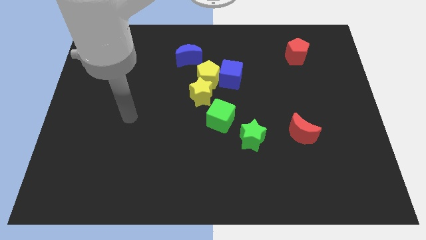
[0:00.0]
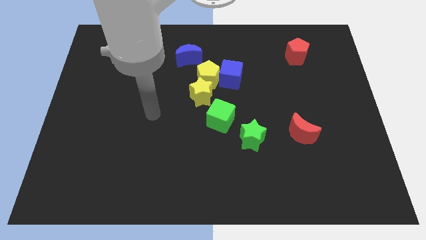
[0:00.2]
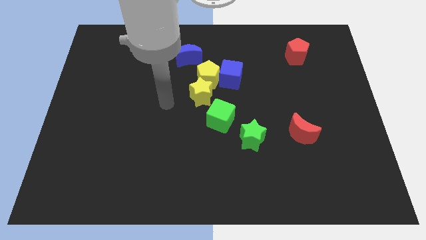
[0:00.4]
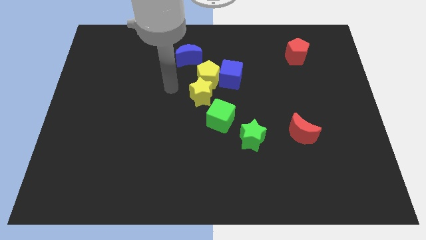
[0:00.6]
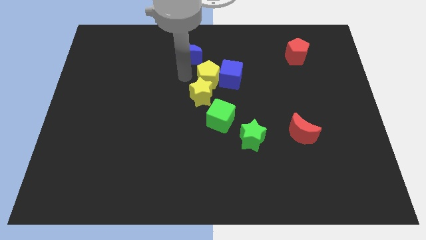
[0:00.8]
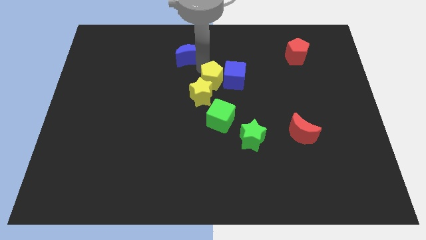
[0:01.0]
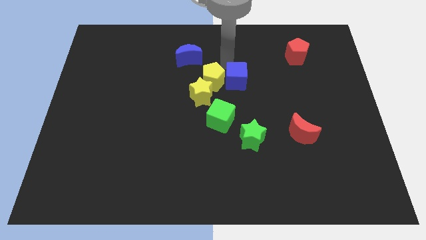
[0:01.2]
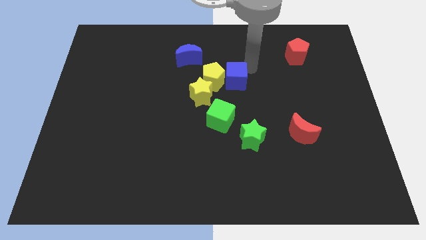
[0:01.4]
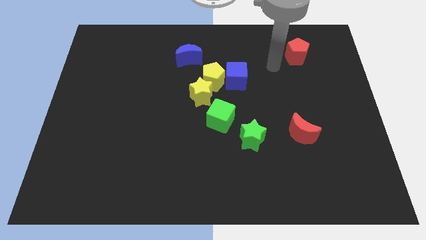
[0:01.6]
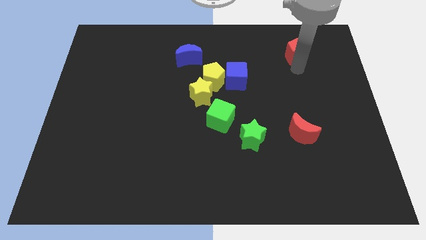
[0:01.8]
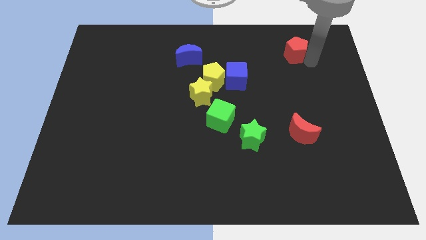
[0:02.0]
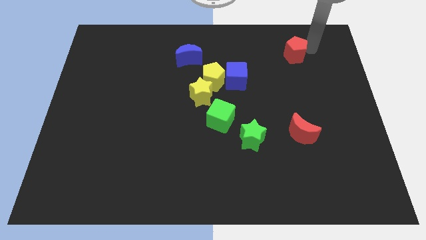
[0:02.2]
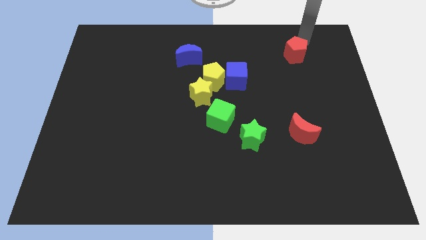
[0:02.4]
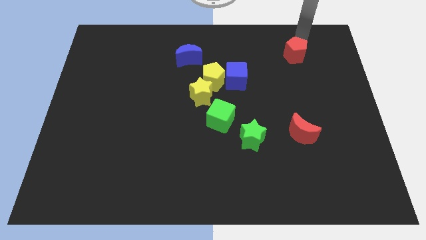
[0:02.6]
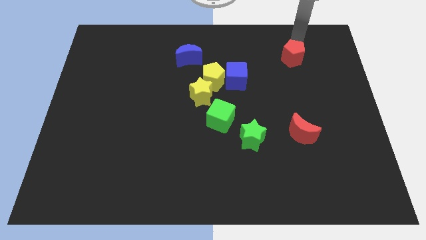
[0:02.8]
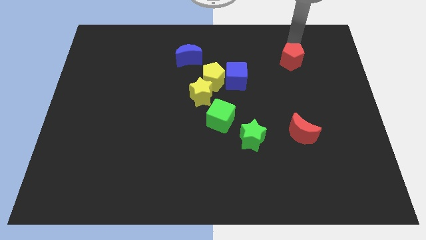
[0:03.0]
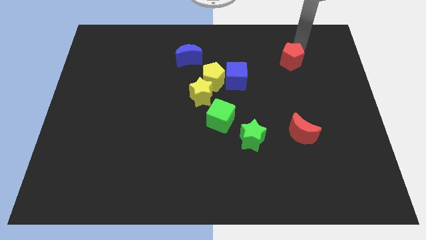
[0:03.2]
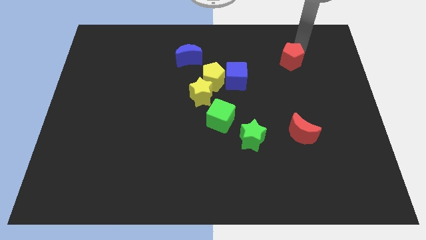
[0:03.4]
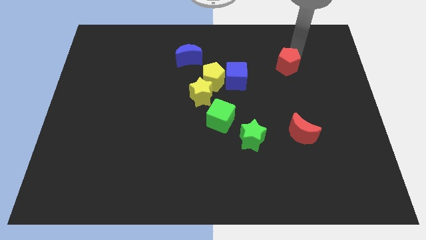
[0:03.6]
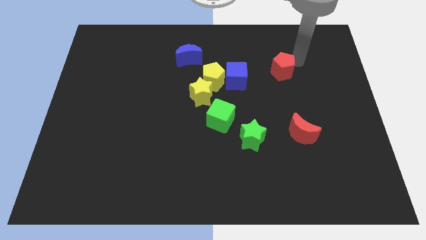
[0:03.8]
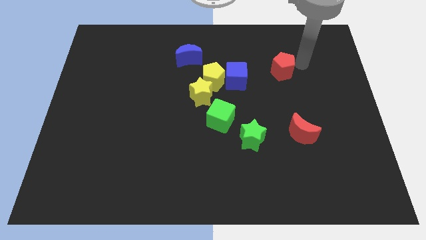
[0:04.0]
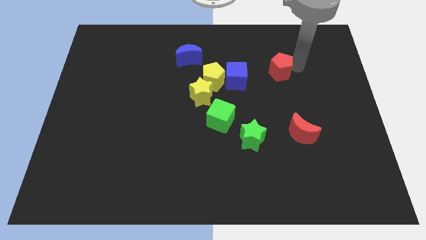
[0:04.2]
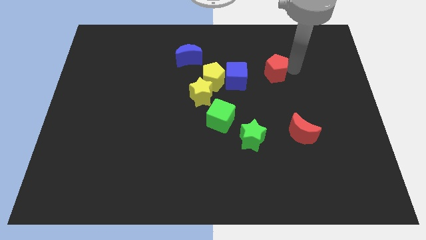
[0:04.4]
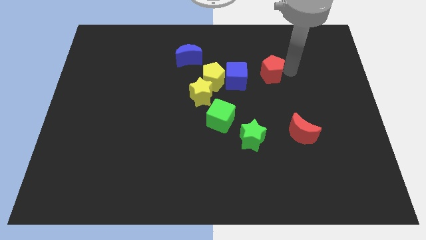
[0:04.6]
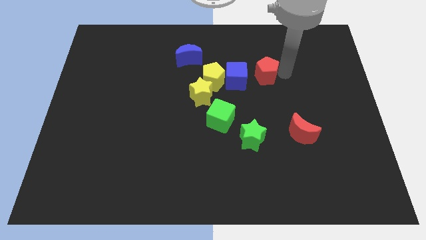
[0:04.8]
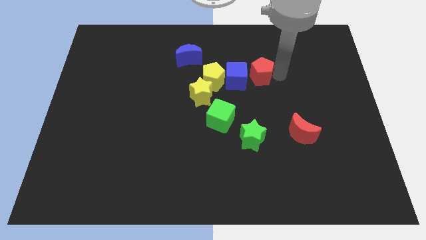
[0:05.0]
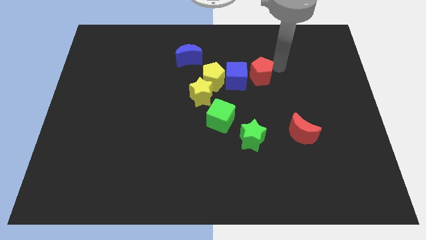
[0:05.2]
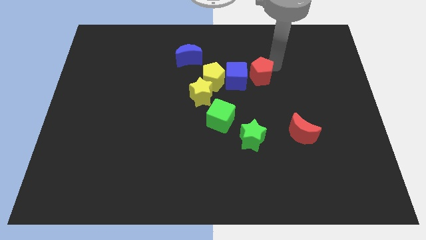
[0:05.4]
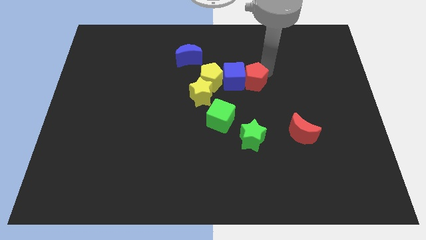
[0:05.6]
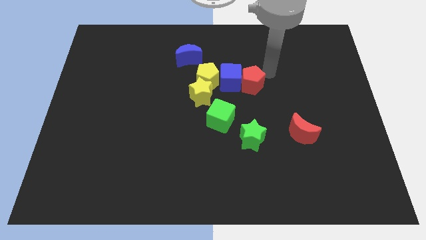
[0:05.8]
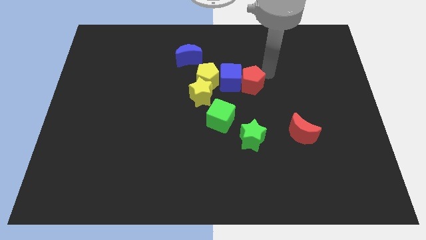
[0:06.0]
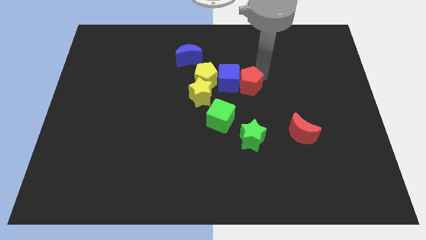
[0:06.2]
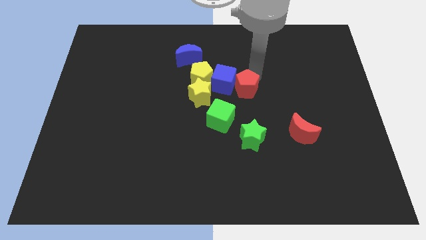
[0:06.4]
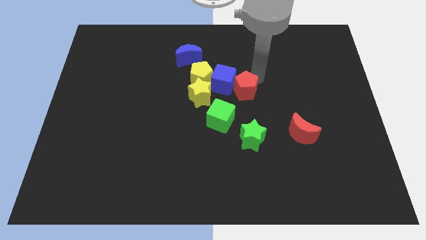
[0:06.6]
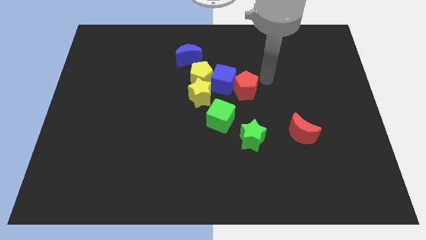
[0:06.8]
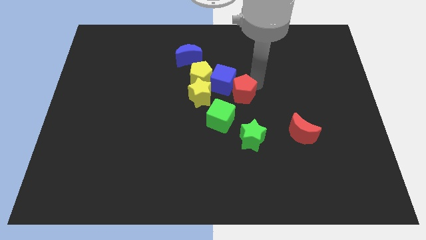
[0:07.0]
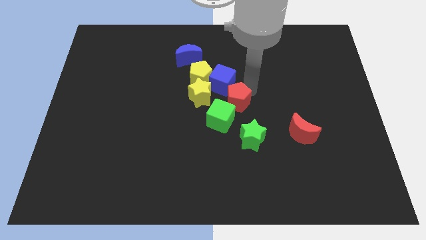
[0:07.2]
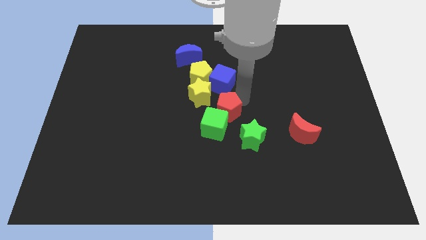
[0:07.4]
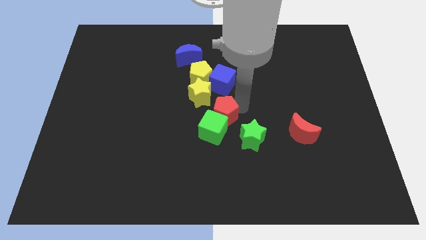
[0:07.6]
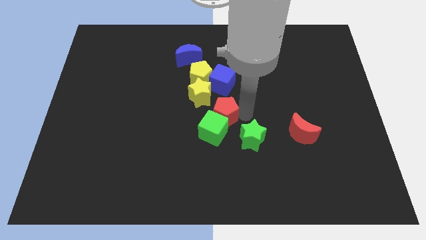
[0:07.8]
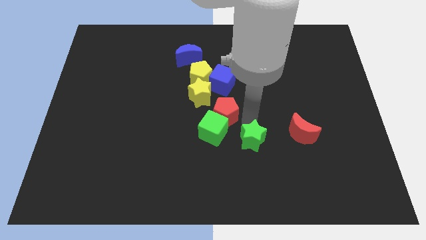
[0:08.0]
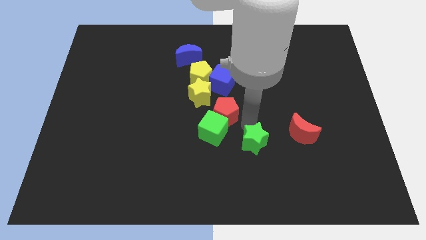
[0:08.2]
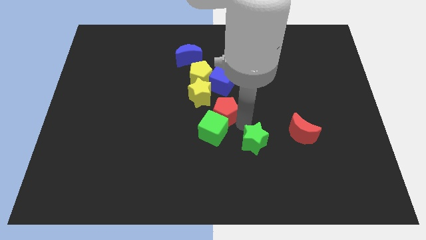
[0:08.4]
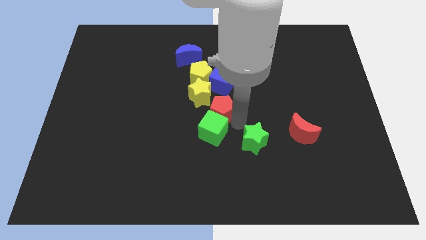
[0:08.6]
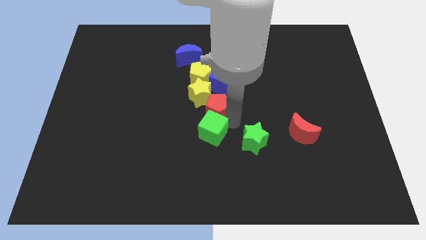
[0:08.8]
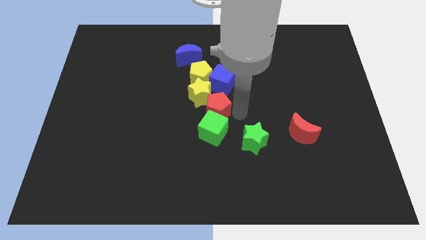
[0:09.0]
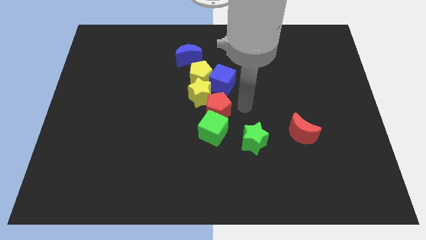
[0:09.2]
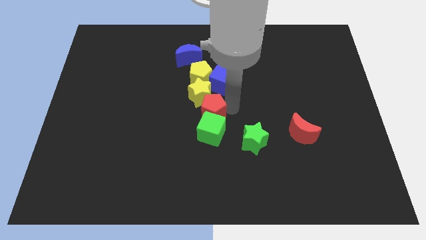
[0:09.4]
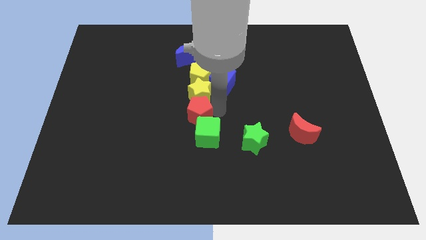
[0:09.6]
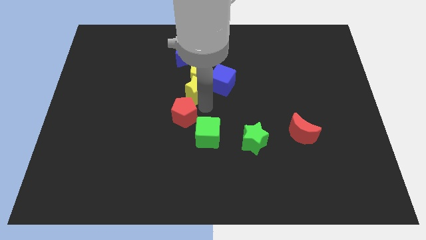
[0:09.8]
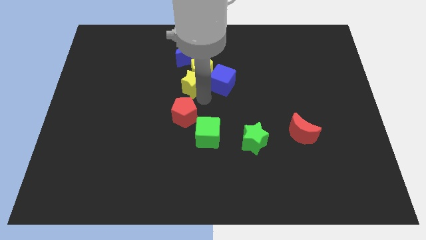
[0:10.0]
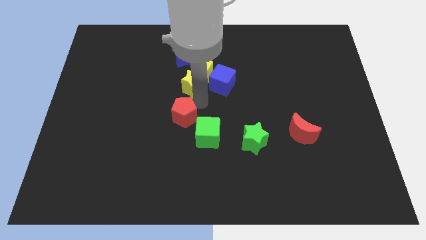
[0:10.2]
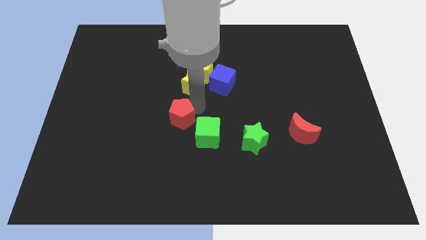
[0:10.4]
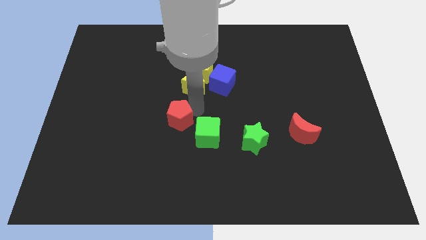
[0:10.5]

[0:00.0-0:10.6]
put the red pentagon to the left of the green cube

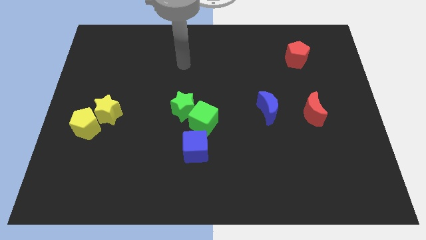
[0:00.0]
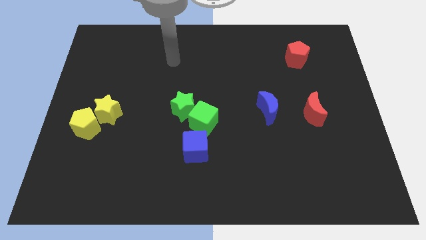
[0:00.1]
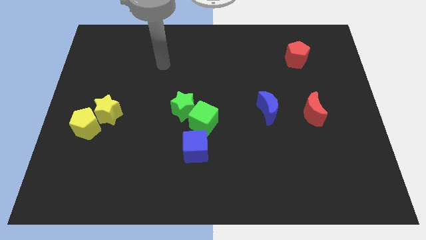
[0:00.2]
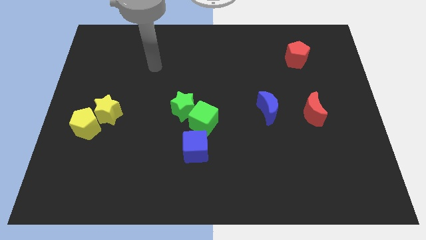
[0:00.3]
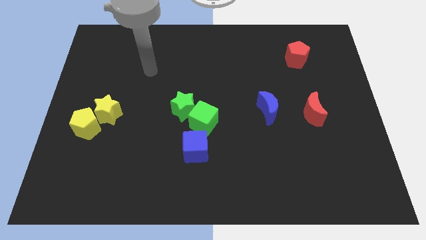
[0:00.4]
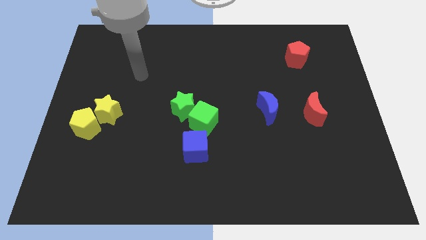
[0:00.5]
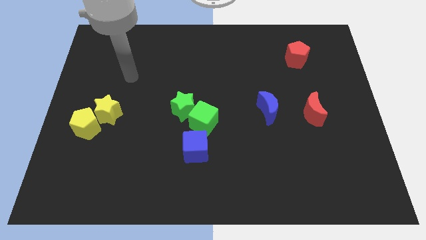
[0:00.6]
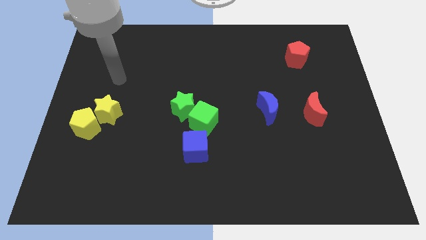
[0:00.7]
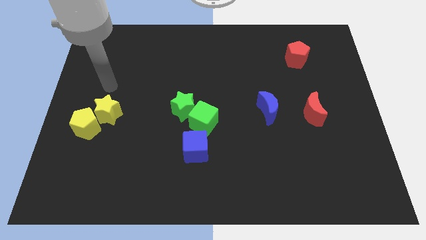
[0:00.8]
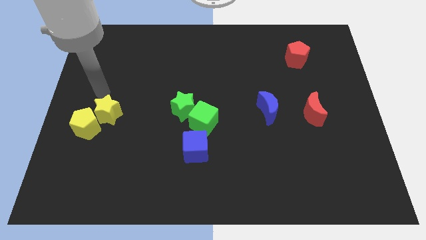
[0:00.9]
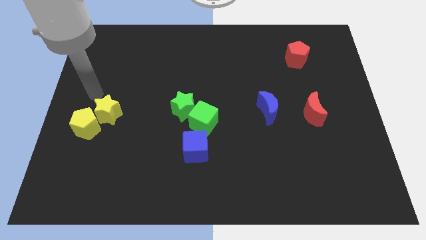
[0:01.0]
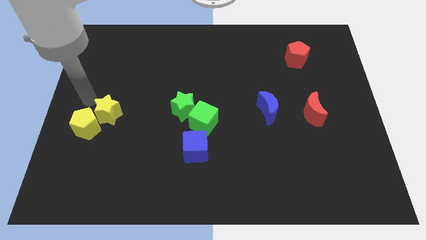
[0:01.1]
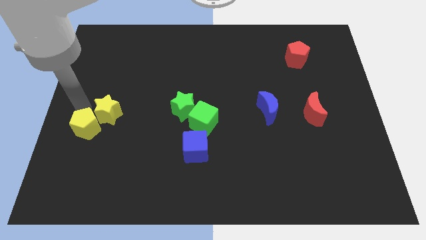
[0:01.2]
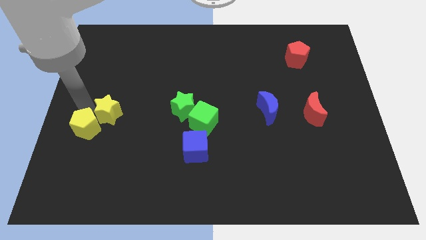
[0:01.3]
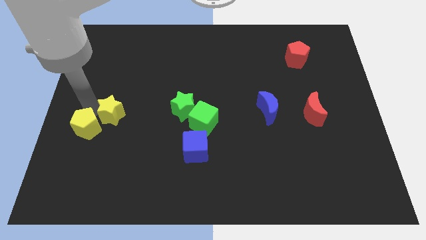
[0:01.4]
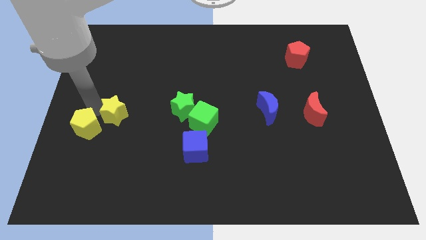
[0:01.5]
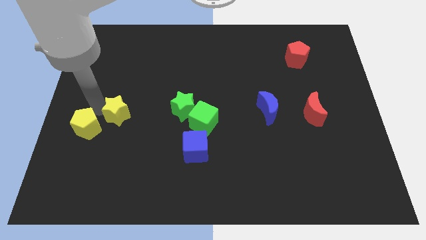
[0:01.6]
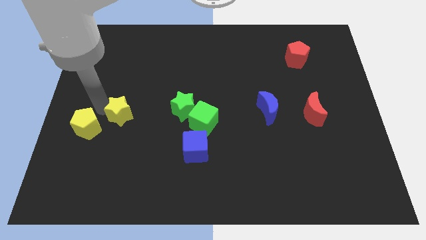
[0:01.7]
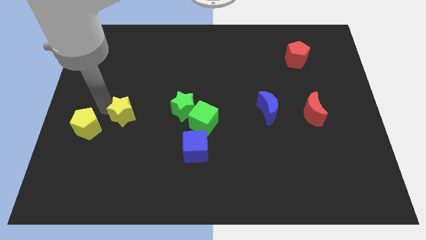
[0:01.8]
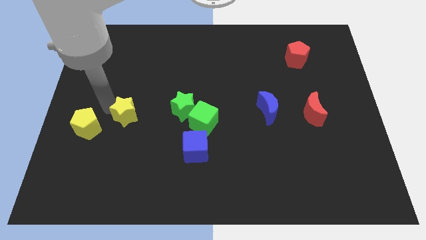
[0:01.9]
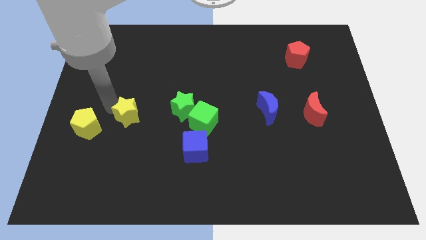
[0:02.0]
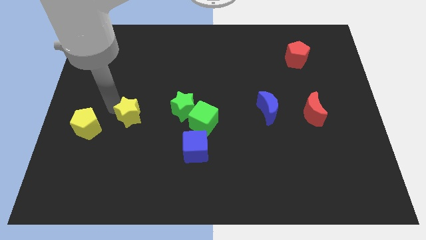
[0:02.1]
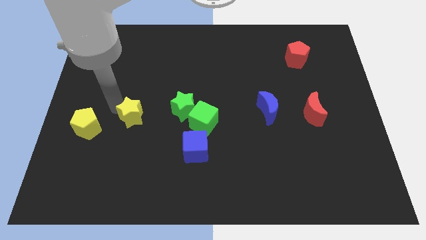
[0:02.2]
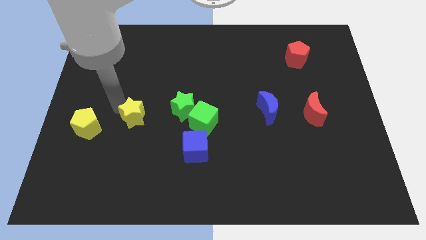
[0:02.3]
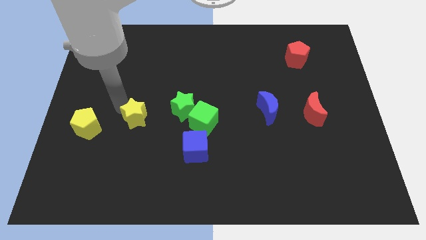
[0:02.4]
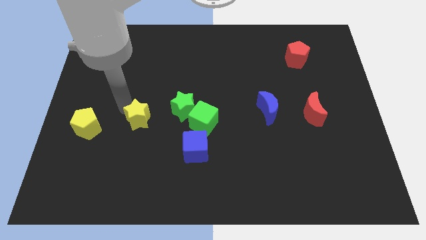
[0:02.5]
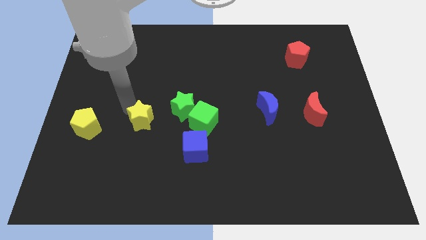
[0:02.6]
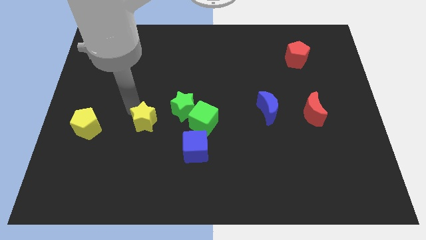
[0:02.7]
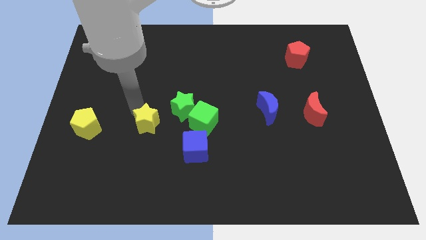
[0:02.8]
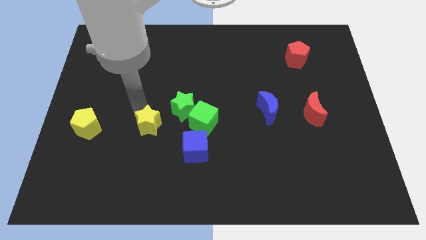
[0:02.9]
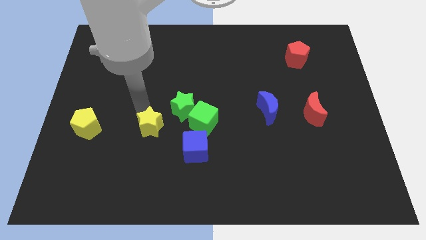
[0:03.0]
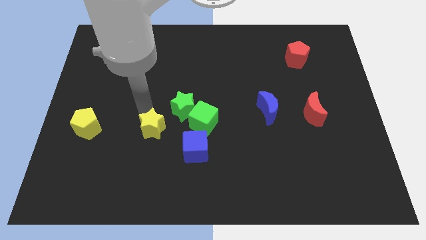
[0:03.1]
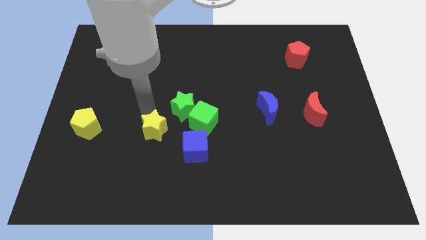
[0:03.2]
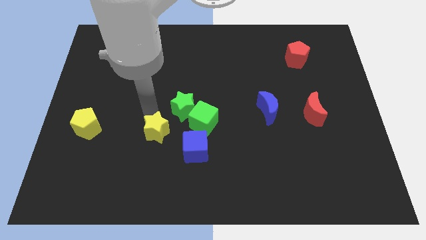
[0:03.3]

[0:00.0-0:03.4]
put the yellow star to the left side of the blue cube
